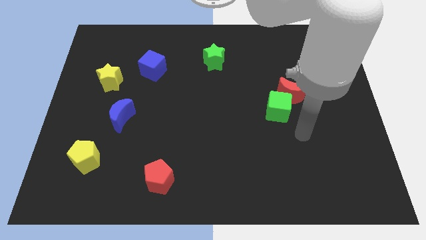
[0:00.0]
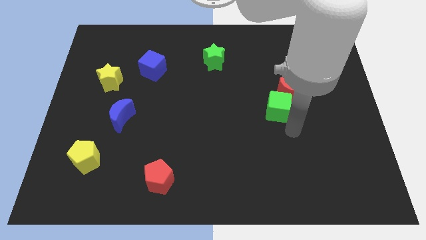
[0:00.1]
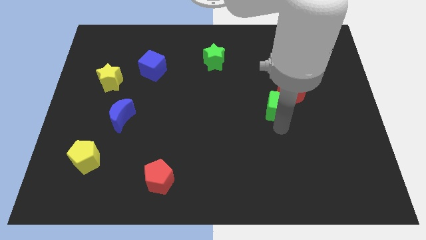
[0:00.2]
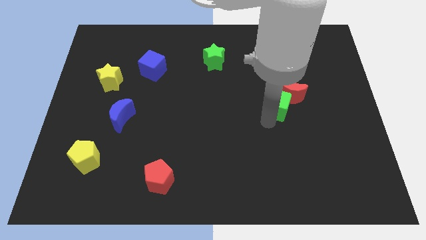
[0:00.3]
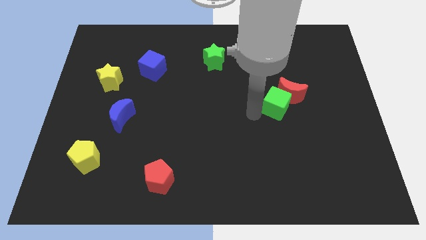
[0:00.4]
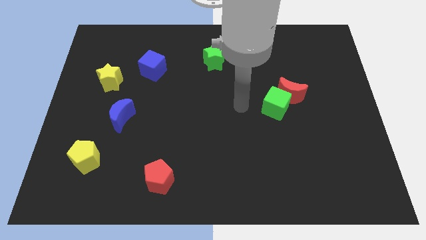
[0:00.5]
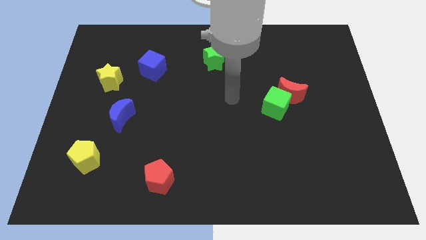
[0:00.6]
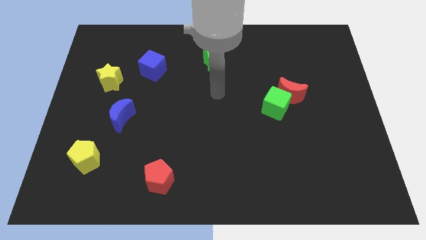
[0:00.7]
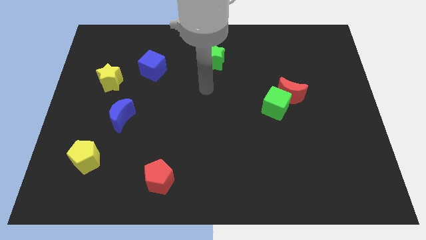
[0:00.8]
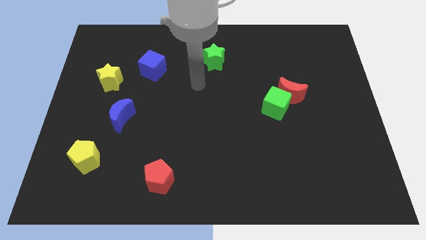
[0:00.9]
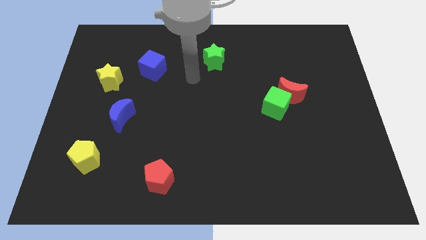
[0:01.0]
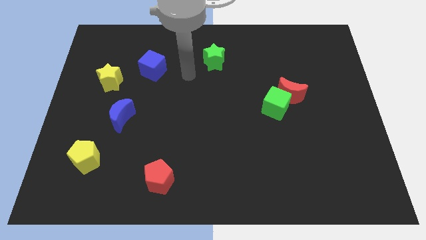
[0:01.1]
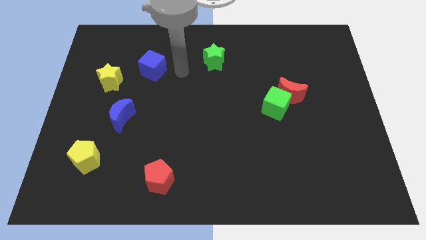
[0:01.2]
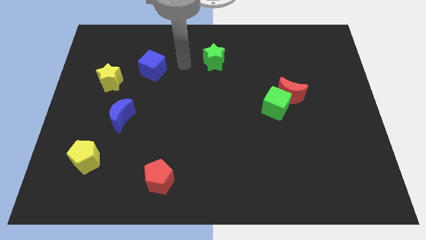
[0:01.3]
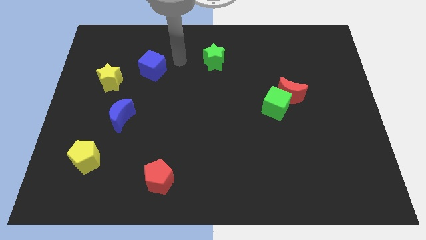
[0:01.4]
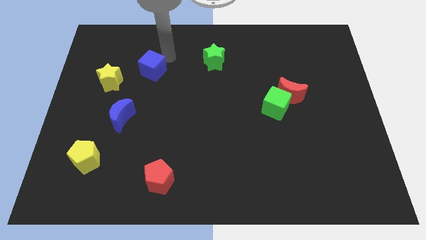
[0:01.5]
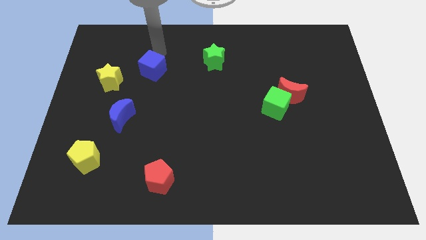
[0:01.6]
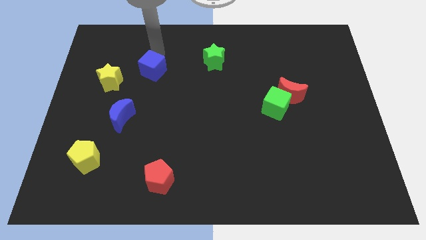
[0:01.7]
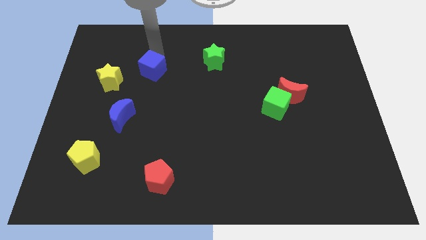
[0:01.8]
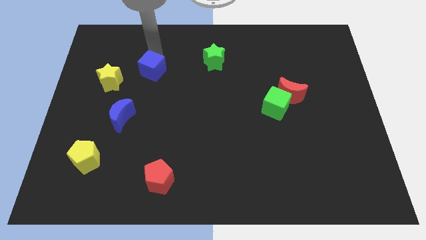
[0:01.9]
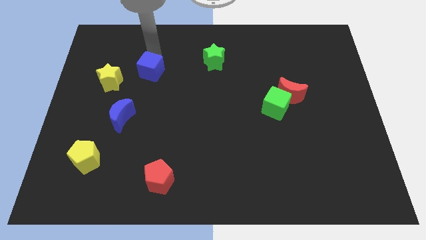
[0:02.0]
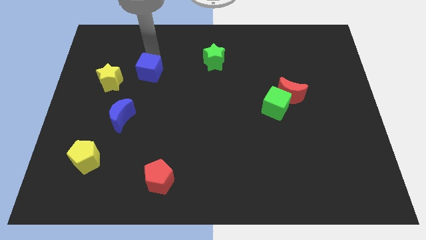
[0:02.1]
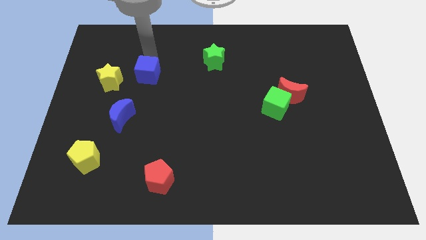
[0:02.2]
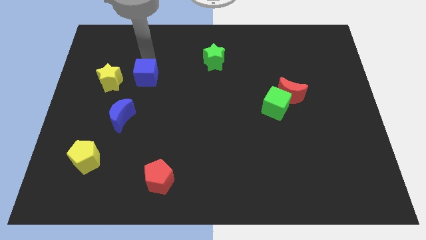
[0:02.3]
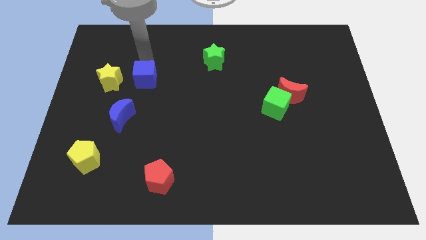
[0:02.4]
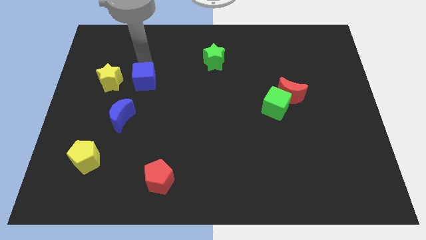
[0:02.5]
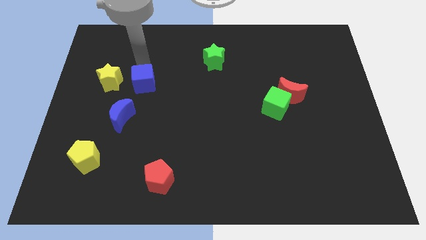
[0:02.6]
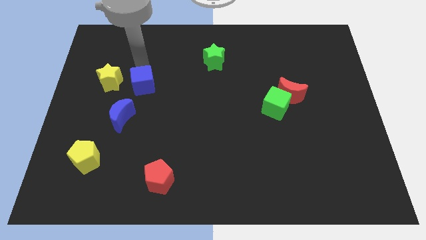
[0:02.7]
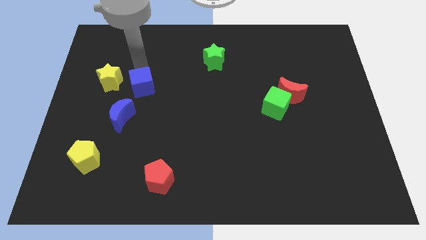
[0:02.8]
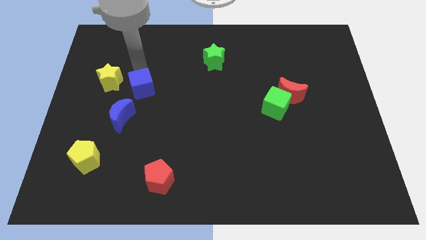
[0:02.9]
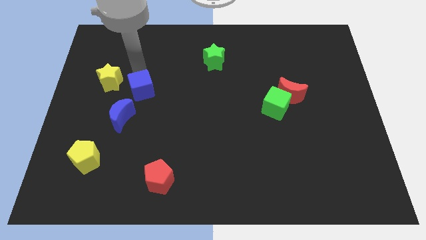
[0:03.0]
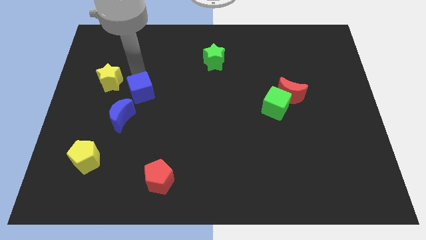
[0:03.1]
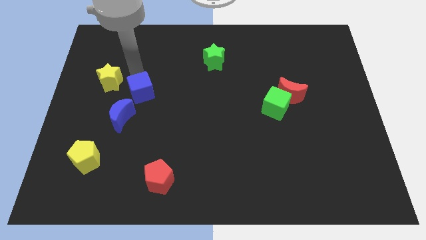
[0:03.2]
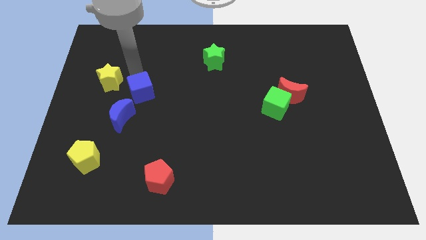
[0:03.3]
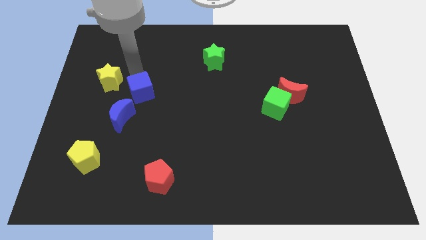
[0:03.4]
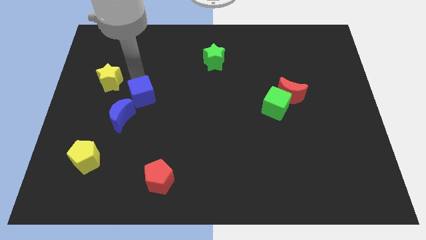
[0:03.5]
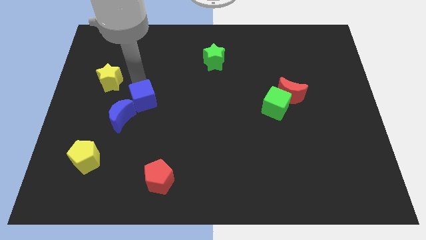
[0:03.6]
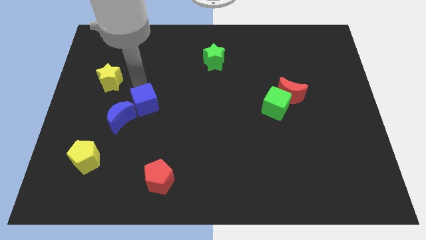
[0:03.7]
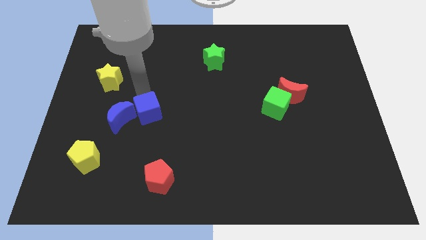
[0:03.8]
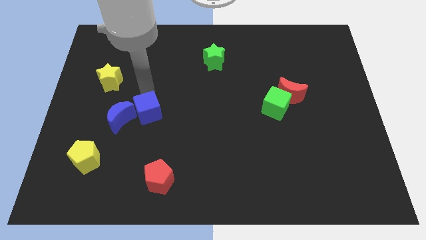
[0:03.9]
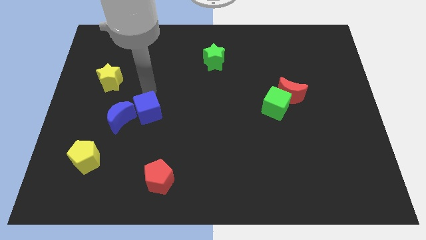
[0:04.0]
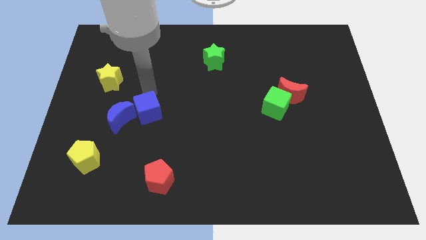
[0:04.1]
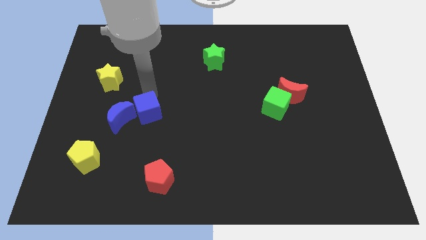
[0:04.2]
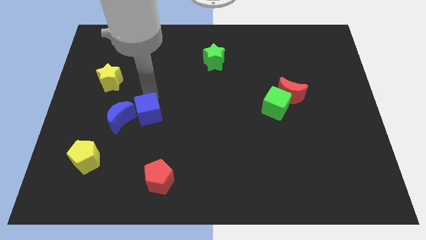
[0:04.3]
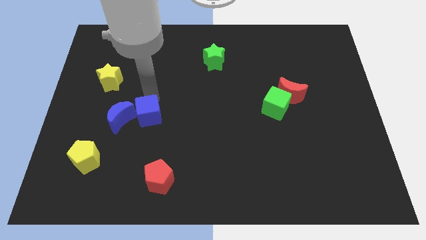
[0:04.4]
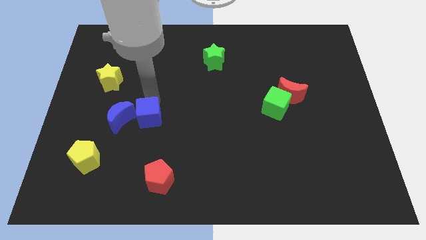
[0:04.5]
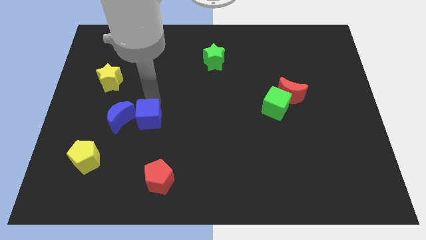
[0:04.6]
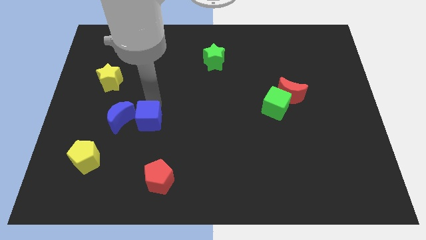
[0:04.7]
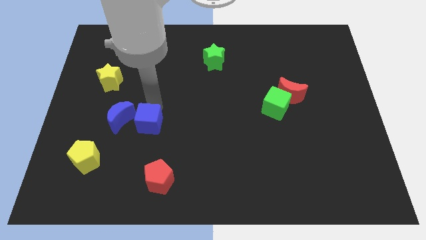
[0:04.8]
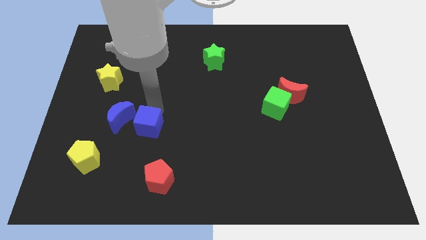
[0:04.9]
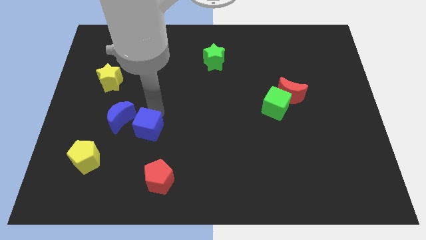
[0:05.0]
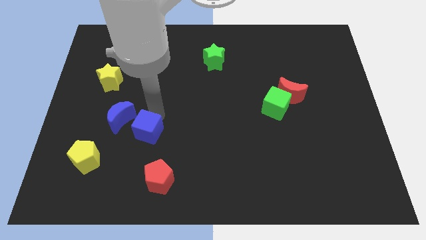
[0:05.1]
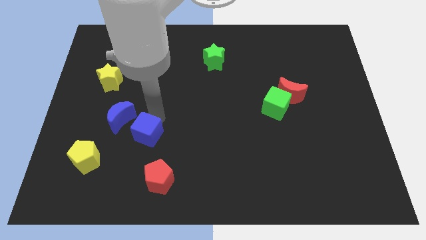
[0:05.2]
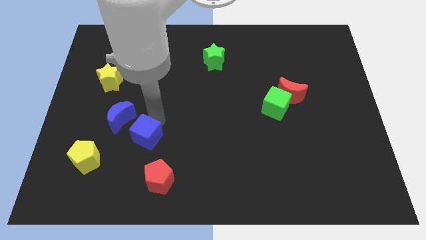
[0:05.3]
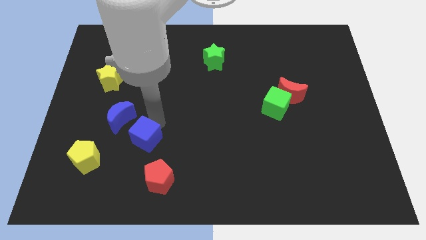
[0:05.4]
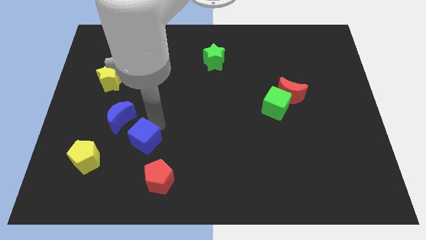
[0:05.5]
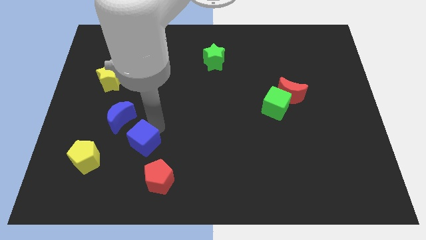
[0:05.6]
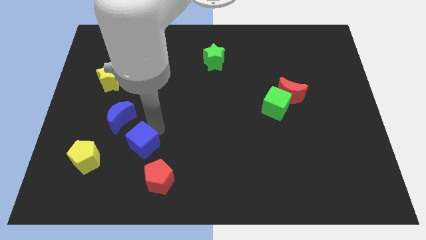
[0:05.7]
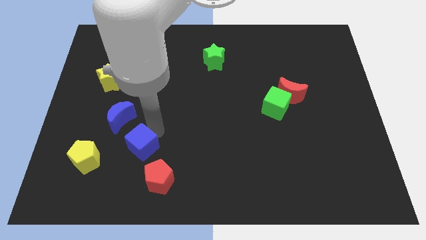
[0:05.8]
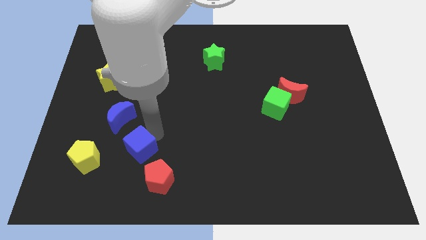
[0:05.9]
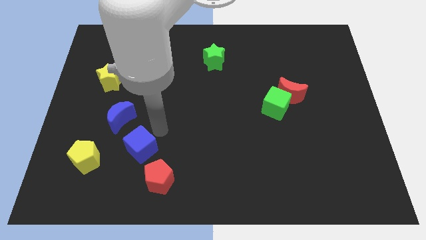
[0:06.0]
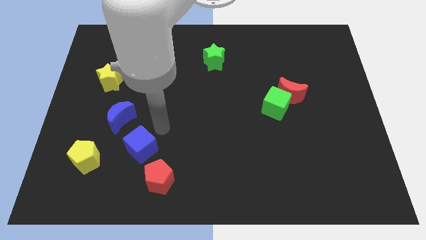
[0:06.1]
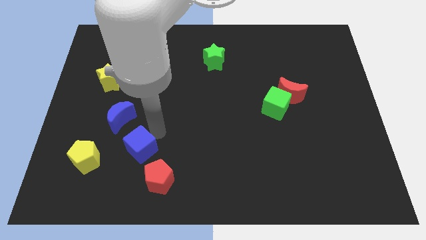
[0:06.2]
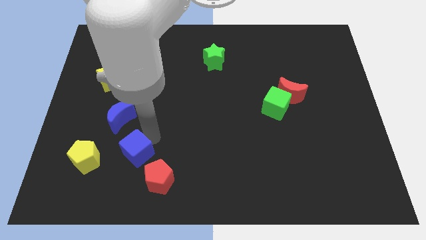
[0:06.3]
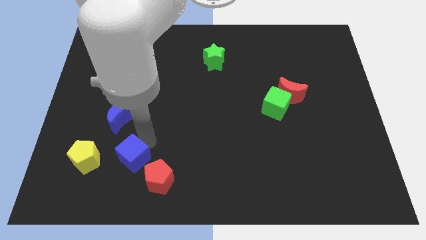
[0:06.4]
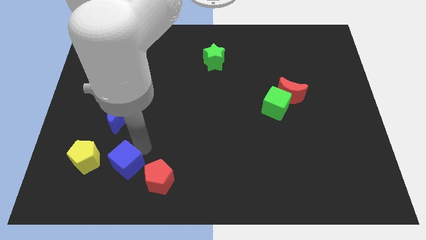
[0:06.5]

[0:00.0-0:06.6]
move the blue cube to the left side of the red pentagon
